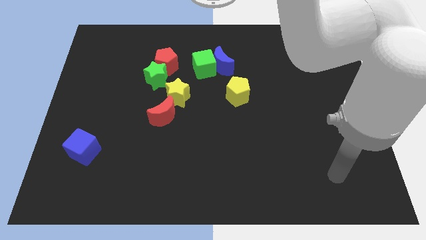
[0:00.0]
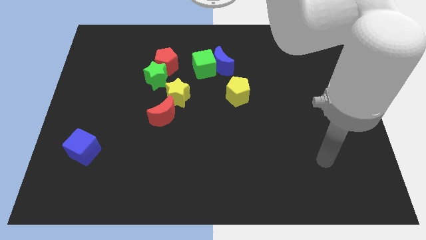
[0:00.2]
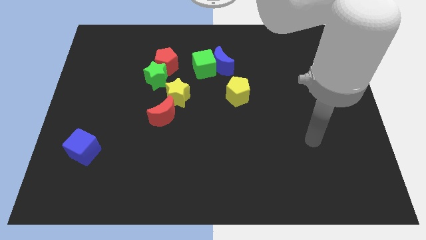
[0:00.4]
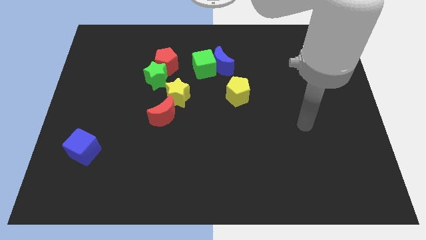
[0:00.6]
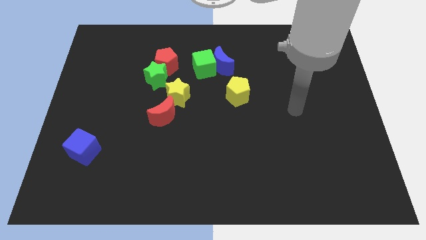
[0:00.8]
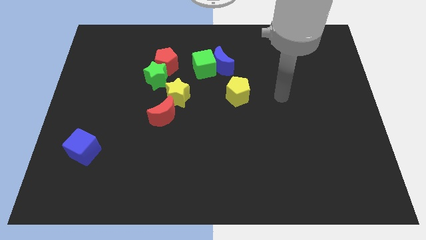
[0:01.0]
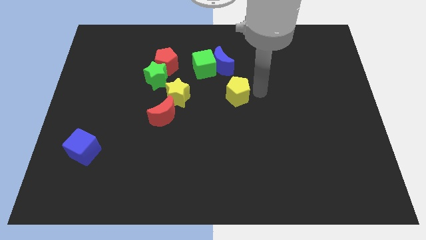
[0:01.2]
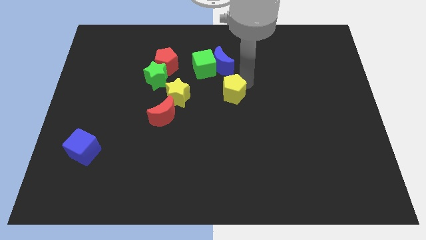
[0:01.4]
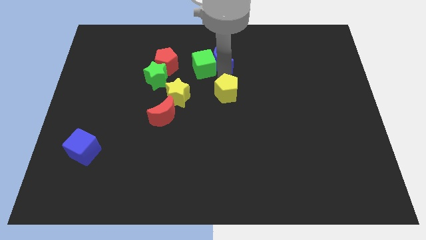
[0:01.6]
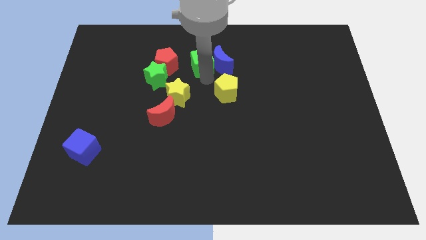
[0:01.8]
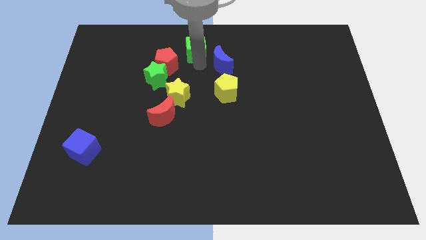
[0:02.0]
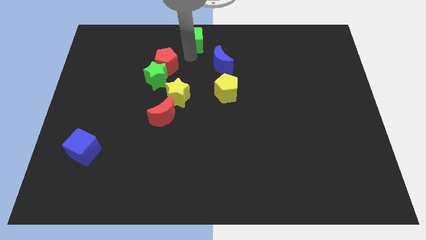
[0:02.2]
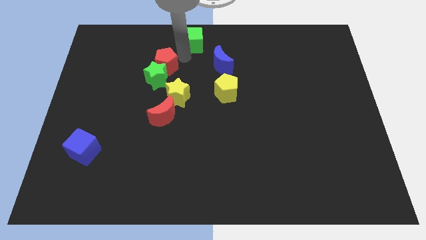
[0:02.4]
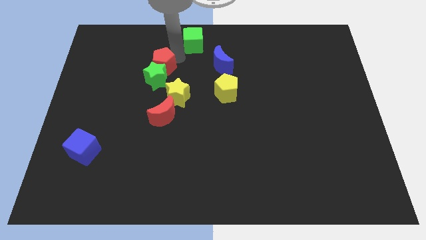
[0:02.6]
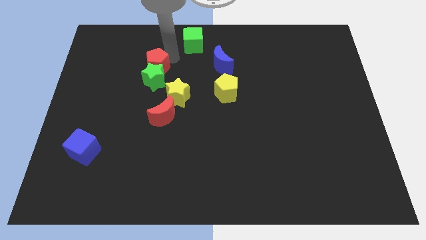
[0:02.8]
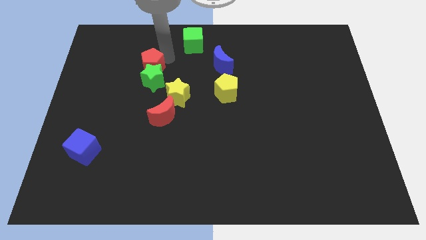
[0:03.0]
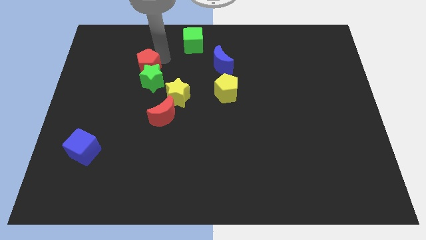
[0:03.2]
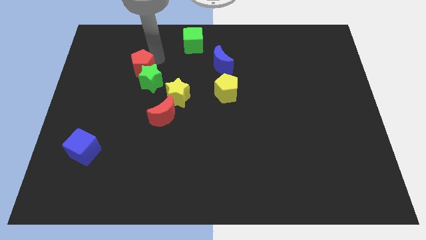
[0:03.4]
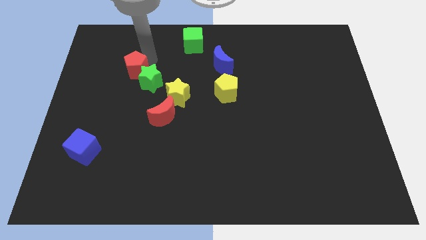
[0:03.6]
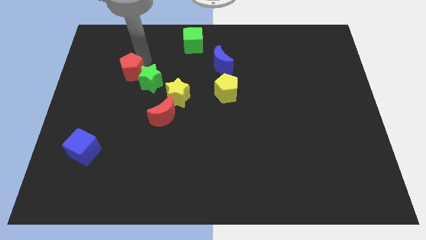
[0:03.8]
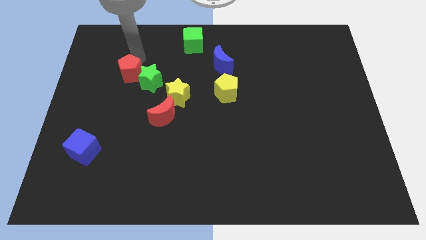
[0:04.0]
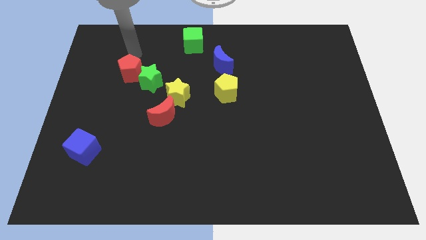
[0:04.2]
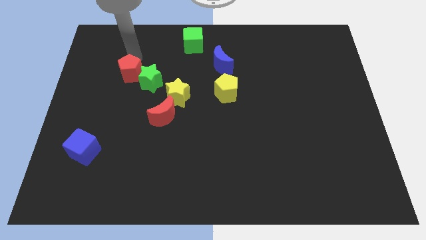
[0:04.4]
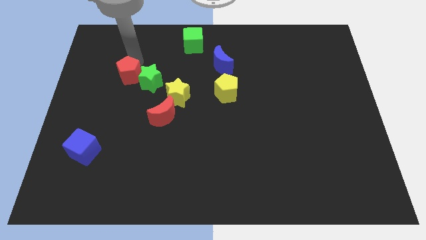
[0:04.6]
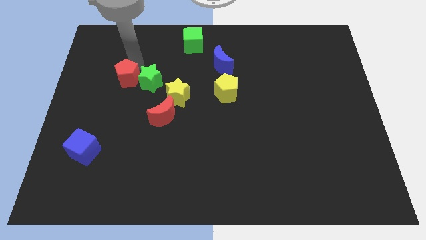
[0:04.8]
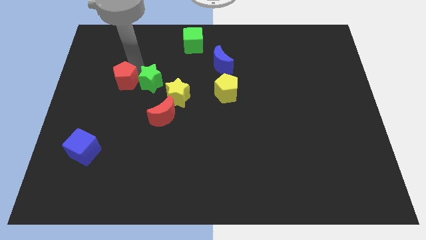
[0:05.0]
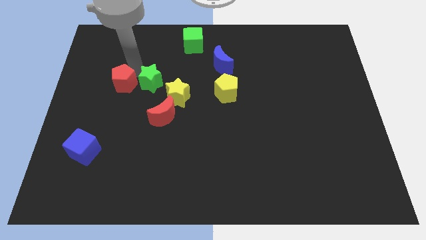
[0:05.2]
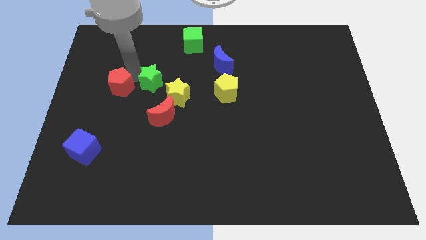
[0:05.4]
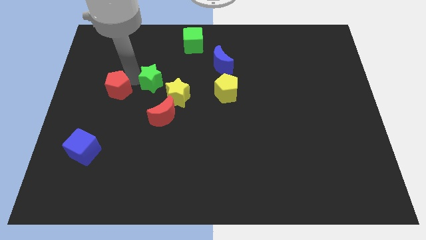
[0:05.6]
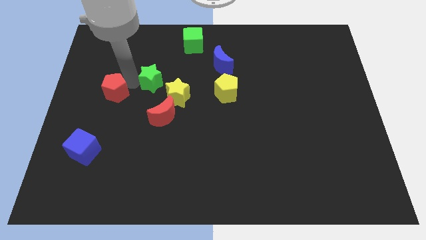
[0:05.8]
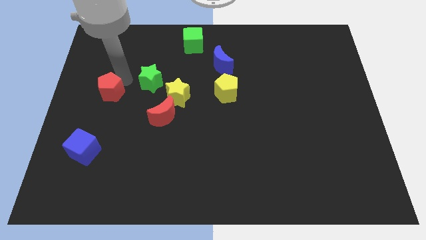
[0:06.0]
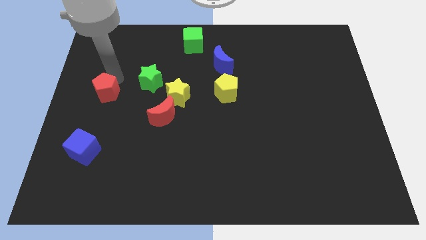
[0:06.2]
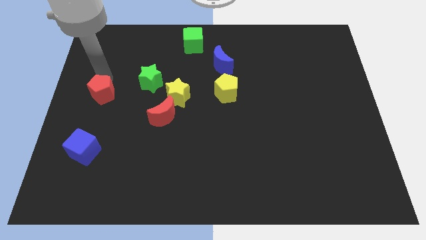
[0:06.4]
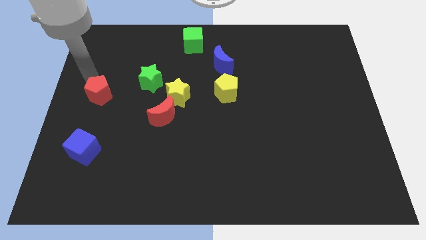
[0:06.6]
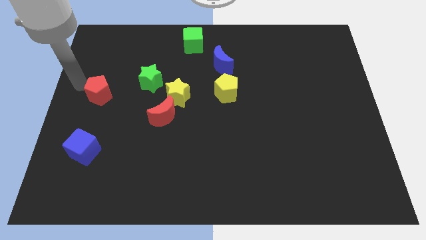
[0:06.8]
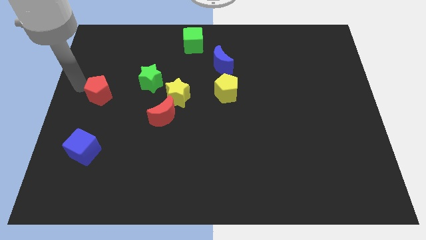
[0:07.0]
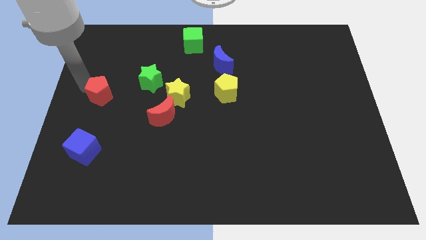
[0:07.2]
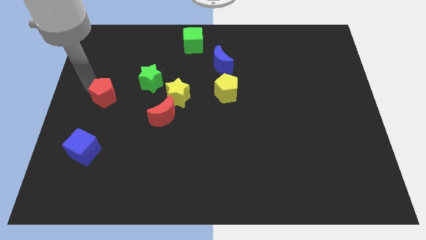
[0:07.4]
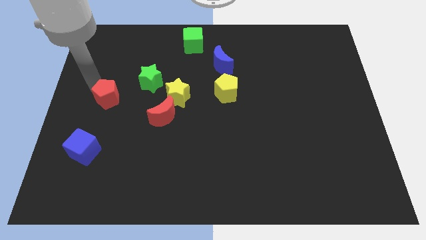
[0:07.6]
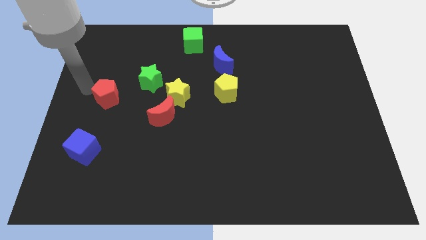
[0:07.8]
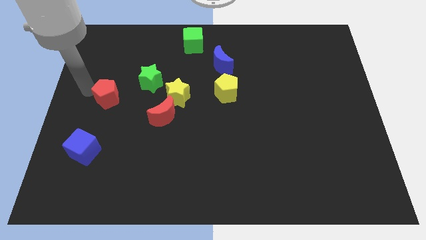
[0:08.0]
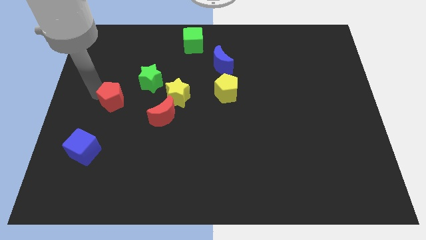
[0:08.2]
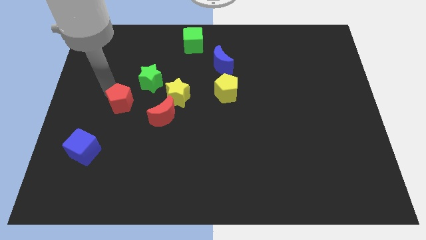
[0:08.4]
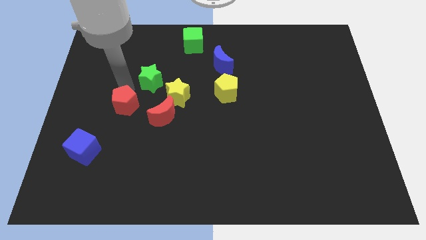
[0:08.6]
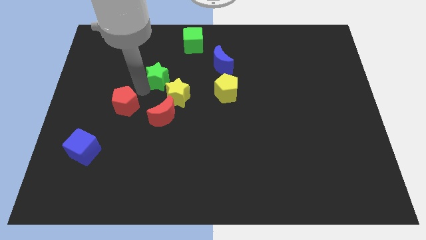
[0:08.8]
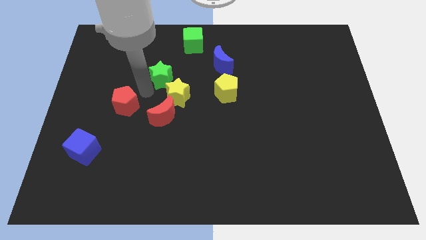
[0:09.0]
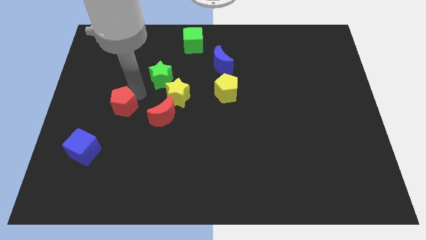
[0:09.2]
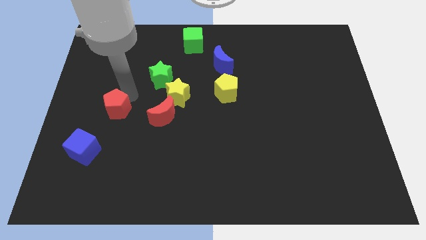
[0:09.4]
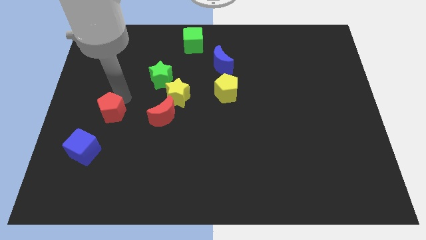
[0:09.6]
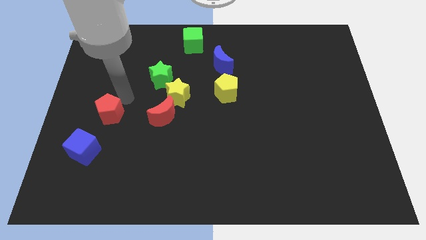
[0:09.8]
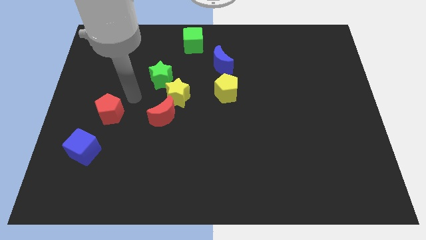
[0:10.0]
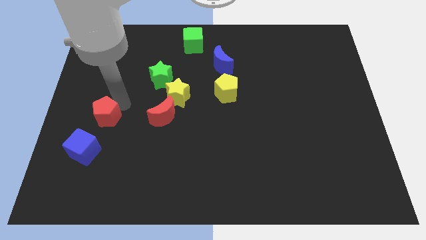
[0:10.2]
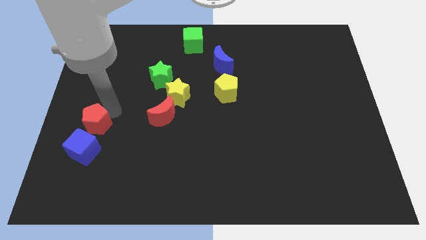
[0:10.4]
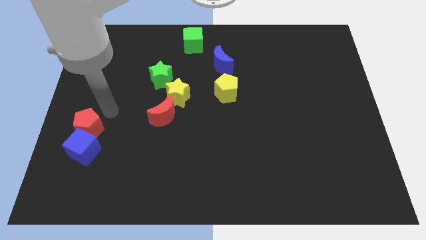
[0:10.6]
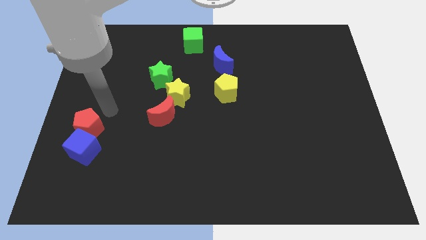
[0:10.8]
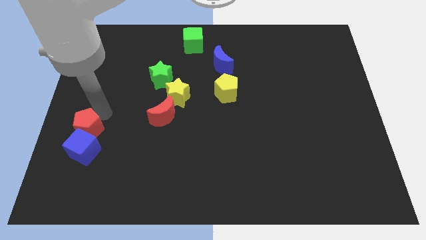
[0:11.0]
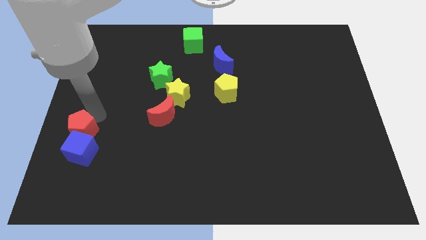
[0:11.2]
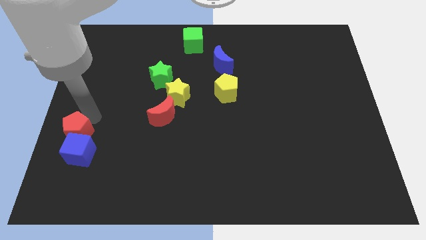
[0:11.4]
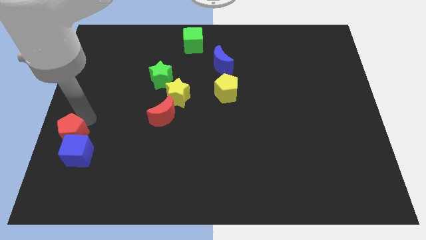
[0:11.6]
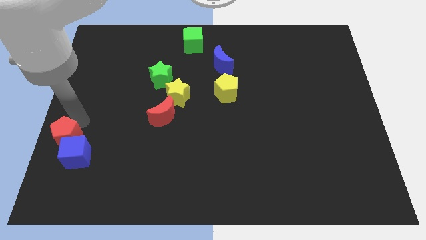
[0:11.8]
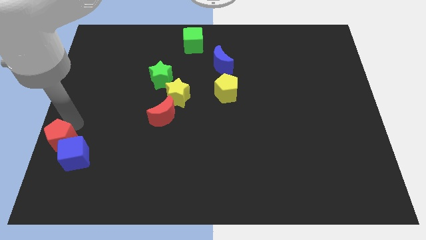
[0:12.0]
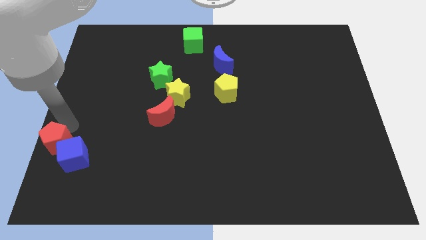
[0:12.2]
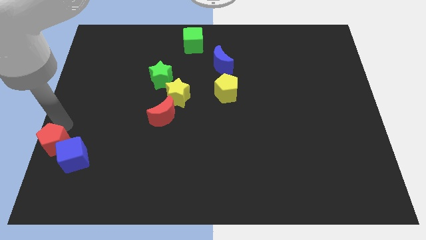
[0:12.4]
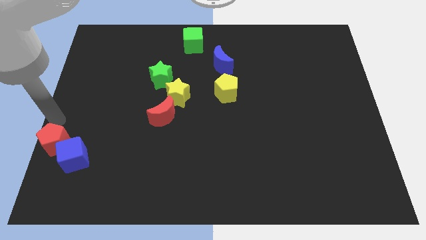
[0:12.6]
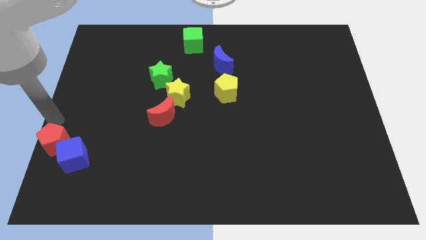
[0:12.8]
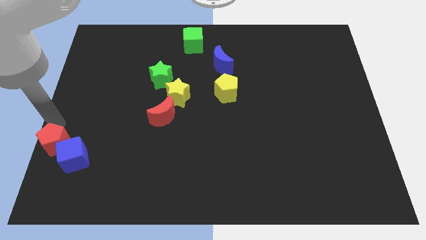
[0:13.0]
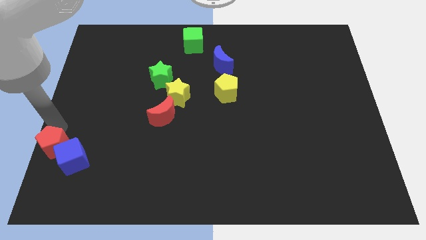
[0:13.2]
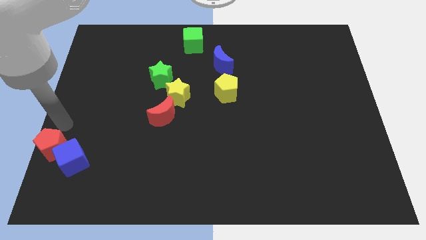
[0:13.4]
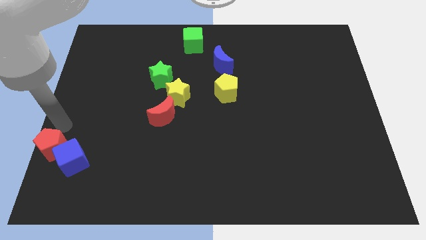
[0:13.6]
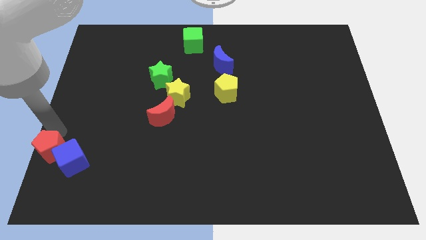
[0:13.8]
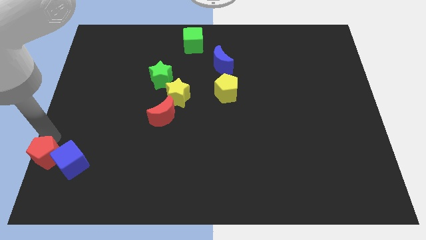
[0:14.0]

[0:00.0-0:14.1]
push the red pentagon to the bottom left
